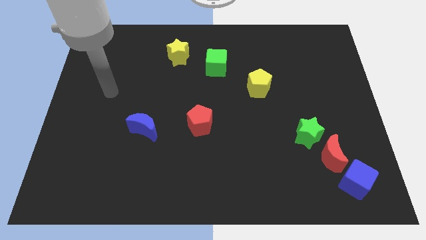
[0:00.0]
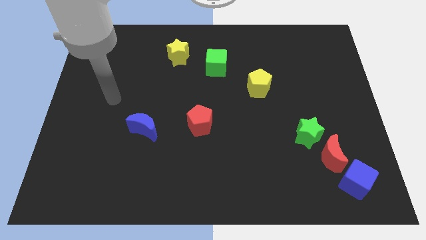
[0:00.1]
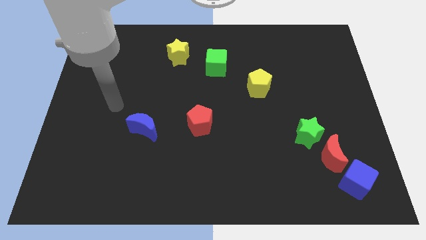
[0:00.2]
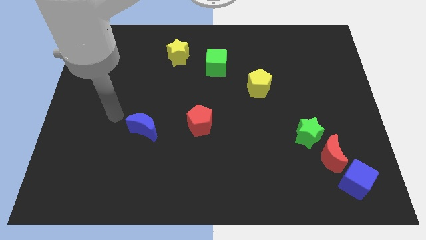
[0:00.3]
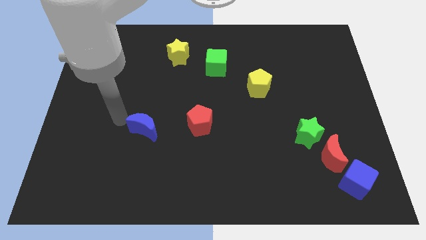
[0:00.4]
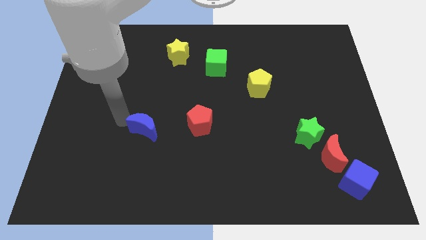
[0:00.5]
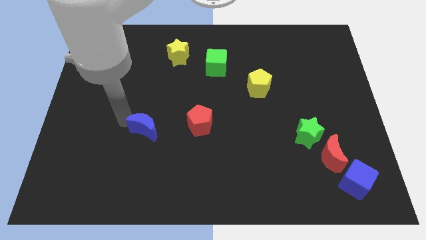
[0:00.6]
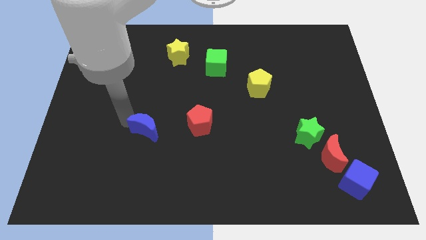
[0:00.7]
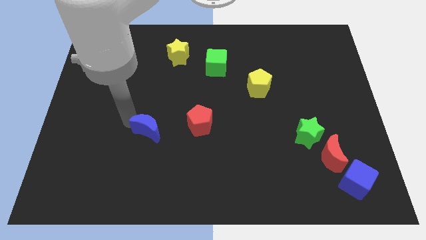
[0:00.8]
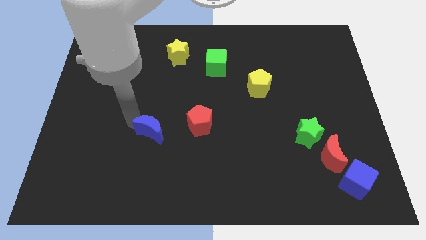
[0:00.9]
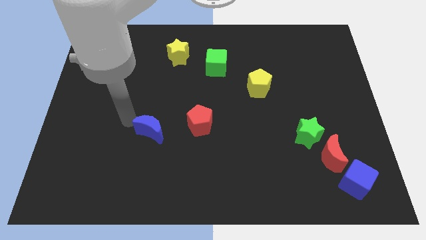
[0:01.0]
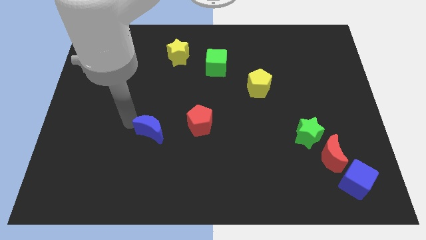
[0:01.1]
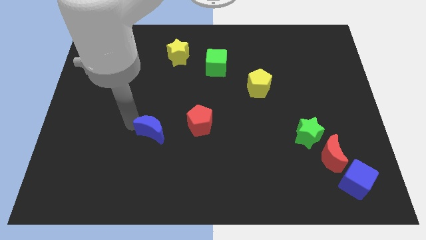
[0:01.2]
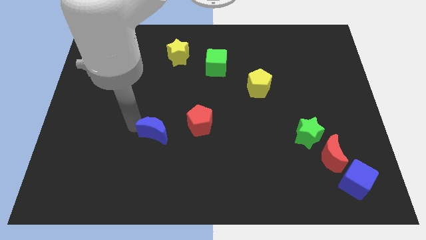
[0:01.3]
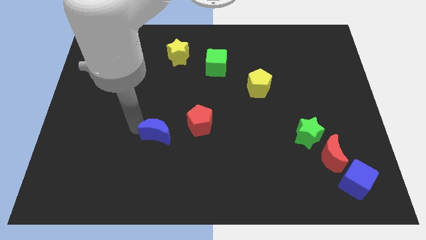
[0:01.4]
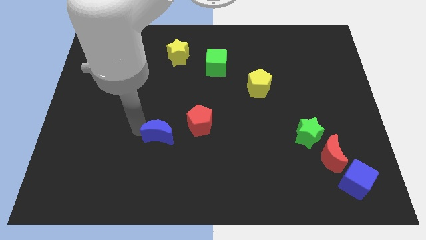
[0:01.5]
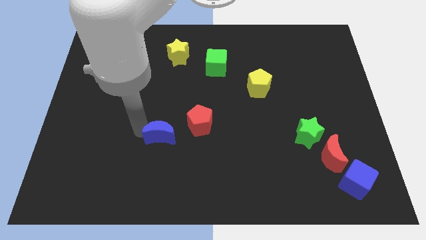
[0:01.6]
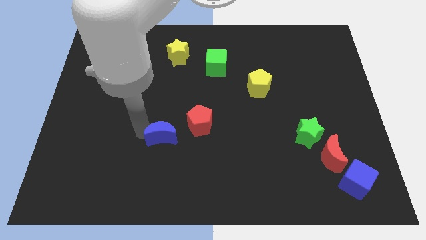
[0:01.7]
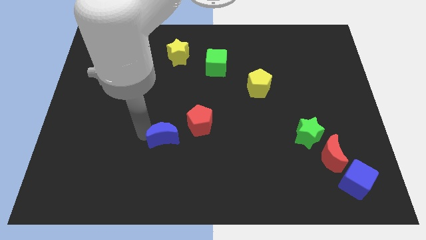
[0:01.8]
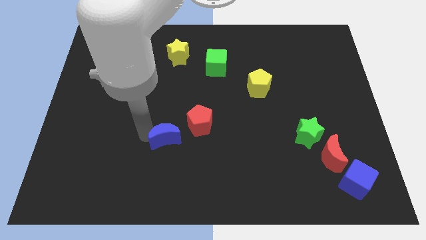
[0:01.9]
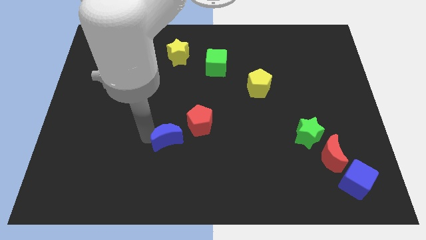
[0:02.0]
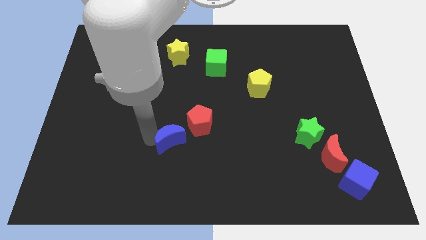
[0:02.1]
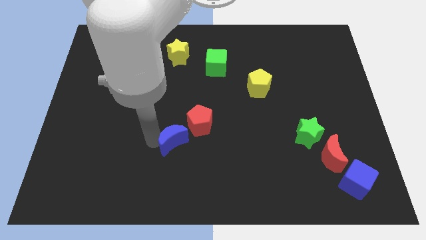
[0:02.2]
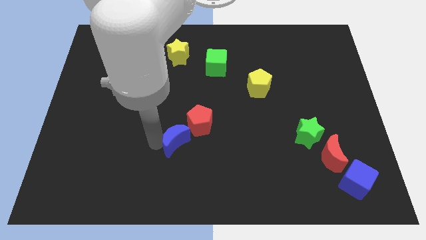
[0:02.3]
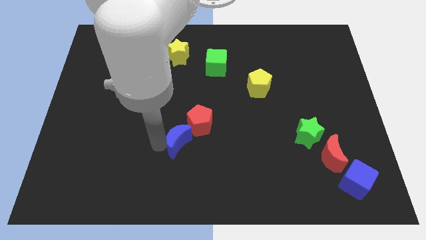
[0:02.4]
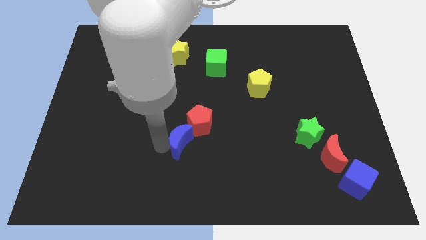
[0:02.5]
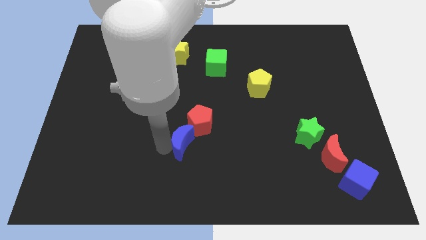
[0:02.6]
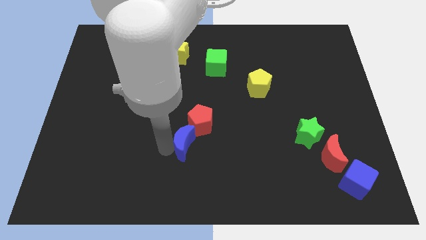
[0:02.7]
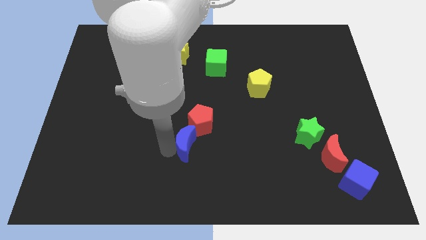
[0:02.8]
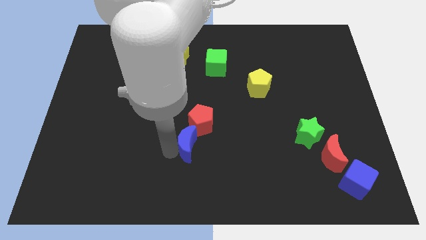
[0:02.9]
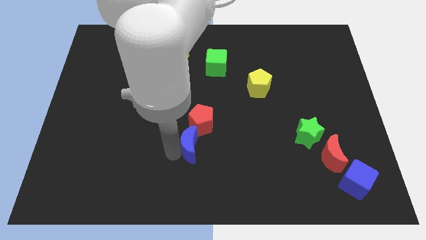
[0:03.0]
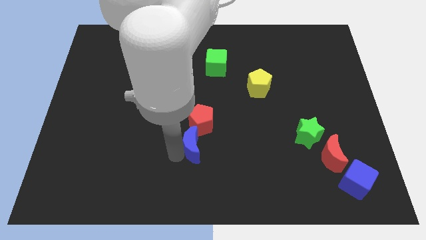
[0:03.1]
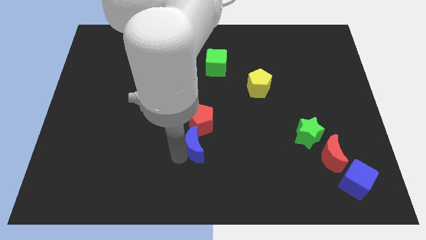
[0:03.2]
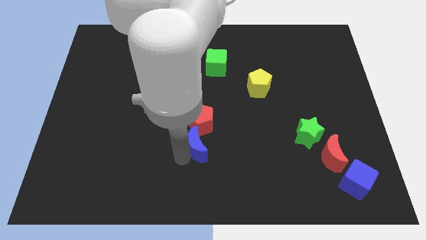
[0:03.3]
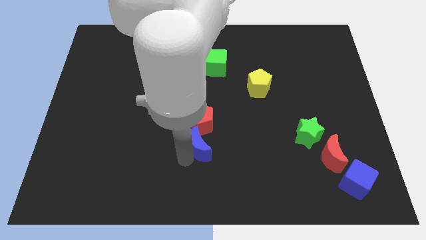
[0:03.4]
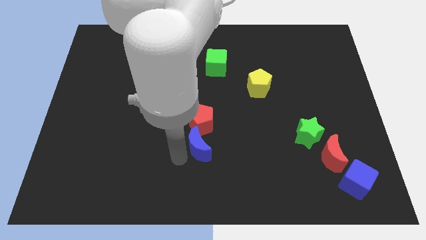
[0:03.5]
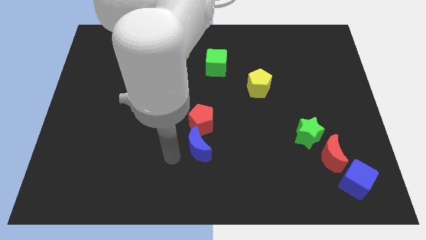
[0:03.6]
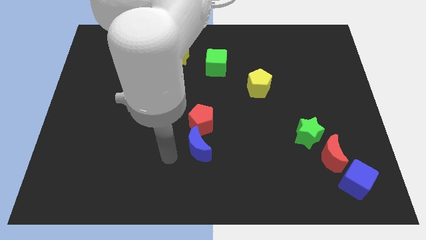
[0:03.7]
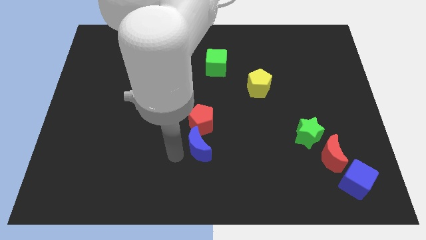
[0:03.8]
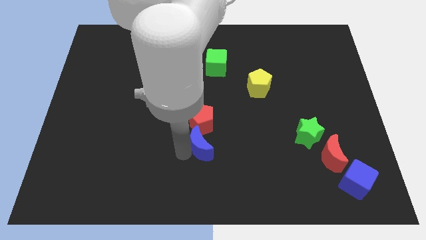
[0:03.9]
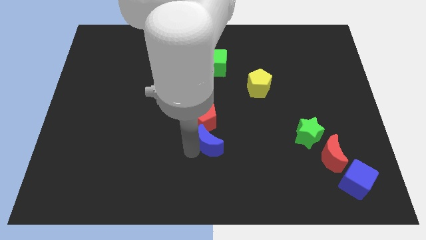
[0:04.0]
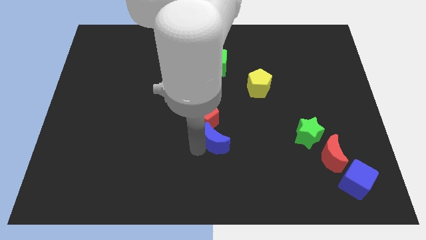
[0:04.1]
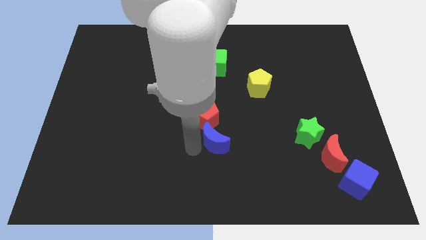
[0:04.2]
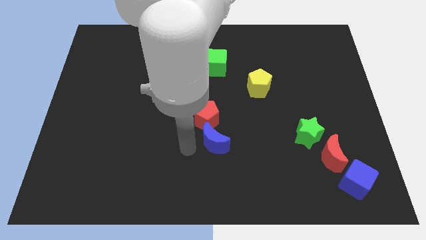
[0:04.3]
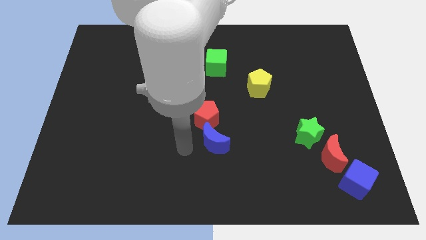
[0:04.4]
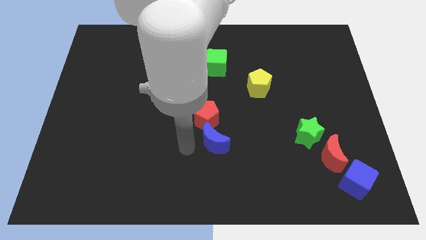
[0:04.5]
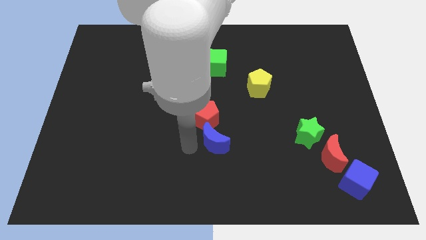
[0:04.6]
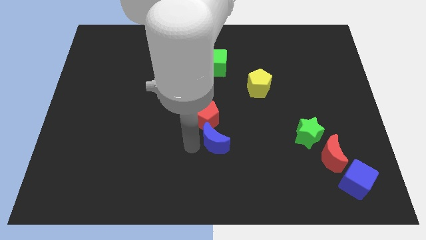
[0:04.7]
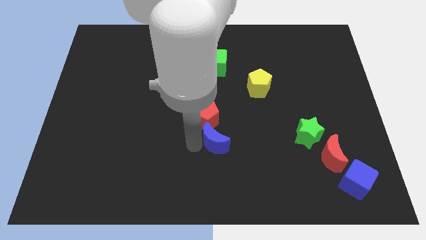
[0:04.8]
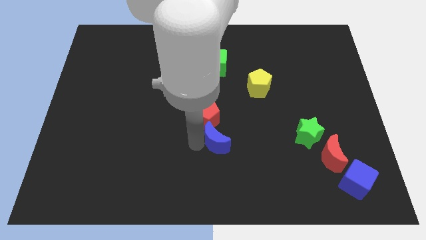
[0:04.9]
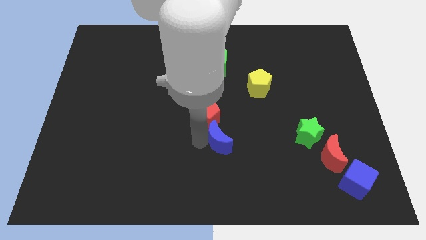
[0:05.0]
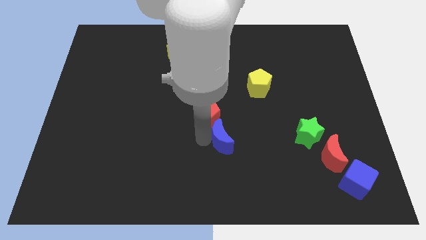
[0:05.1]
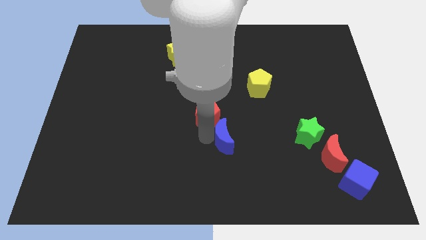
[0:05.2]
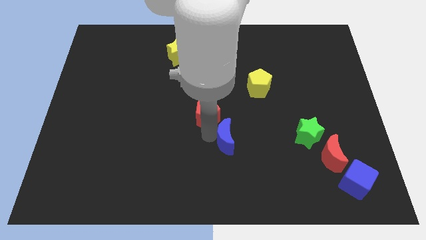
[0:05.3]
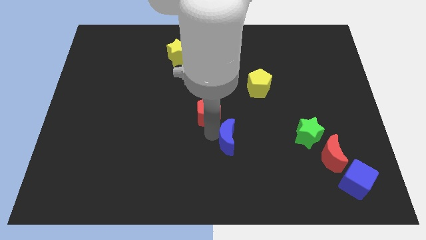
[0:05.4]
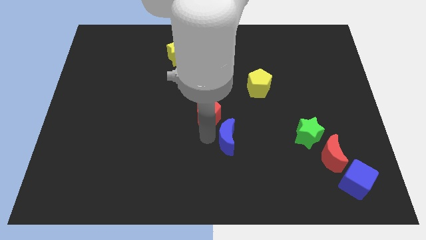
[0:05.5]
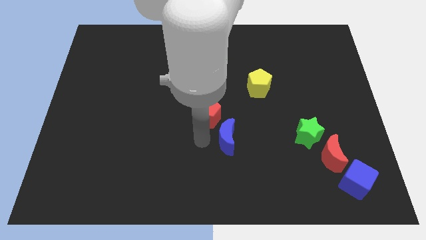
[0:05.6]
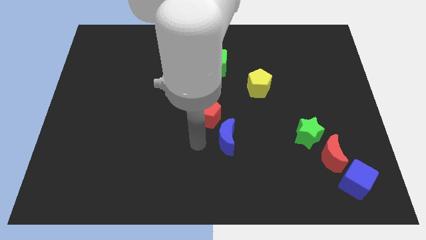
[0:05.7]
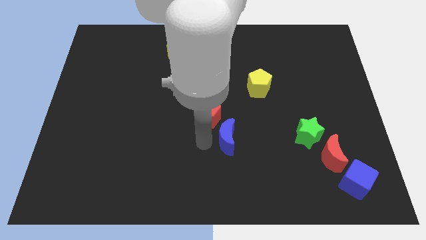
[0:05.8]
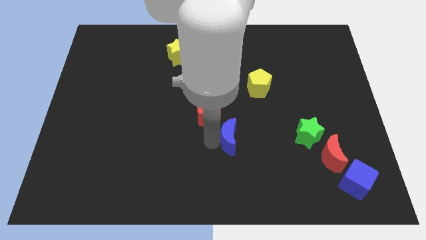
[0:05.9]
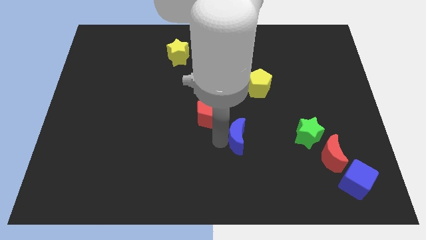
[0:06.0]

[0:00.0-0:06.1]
push the blue moon right

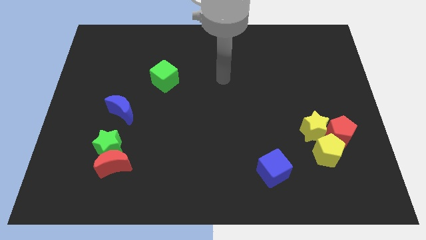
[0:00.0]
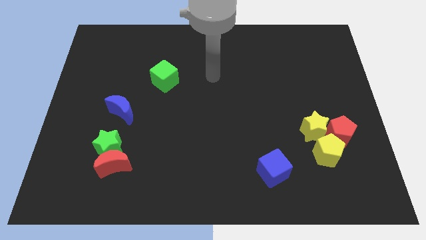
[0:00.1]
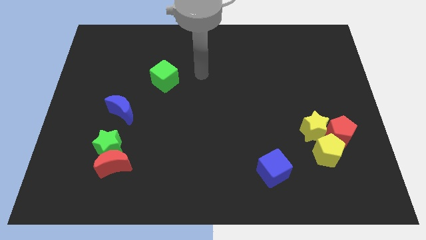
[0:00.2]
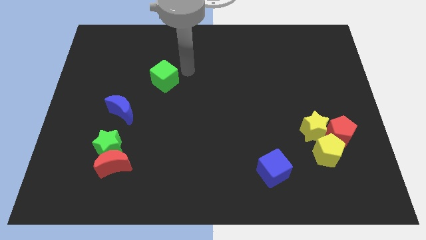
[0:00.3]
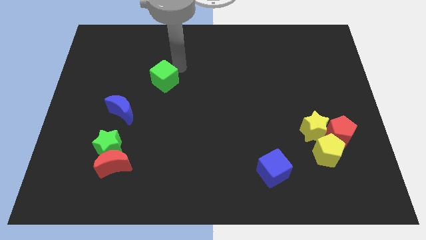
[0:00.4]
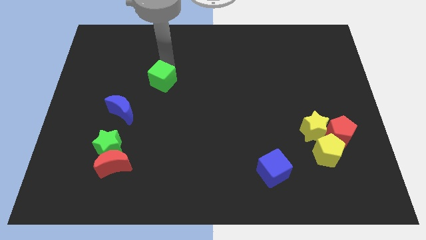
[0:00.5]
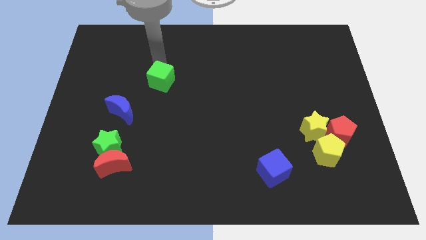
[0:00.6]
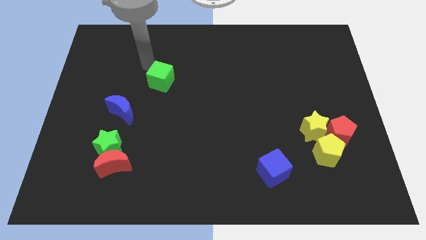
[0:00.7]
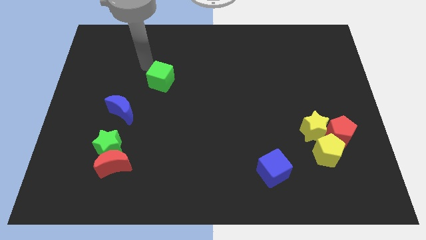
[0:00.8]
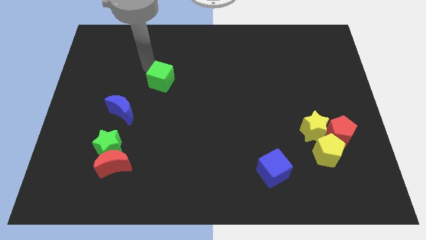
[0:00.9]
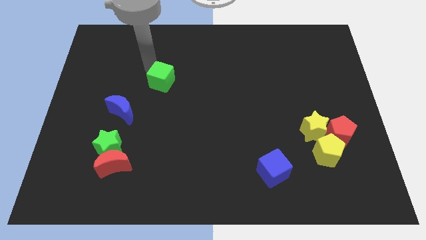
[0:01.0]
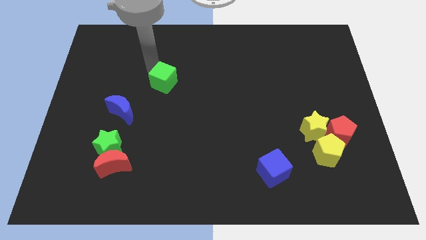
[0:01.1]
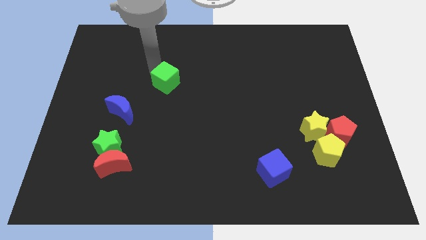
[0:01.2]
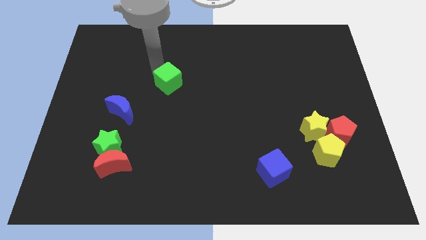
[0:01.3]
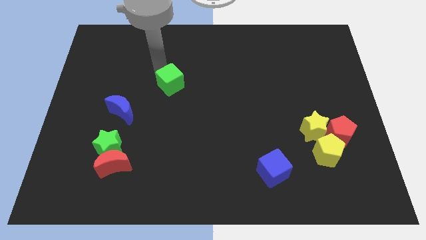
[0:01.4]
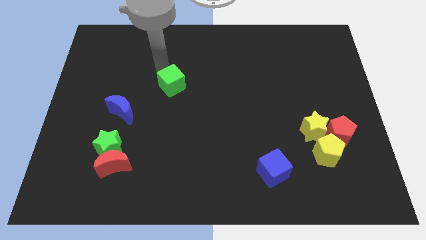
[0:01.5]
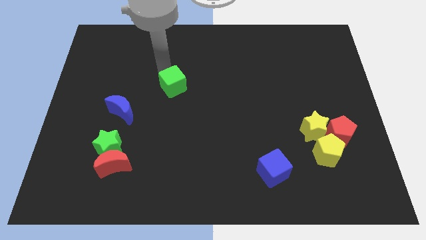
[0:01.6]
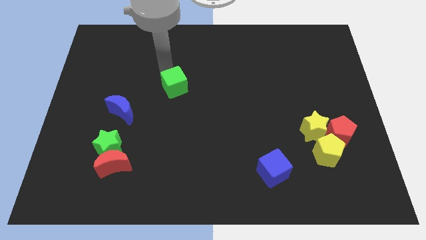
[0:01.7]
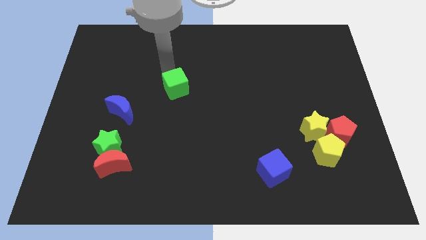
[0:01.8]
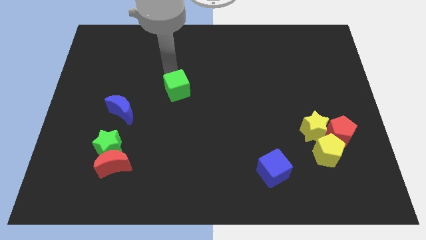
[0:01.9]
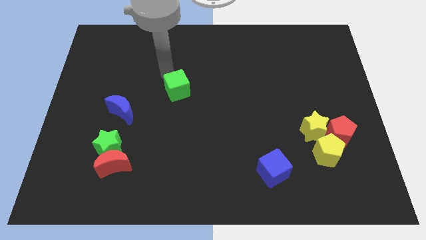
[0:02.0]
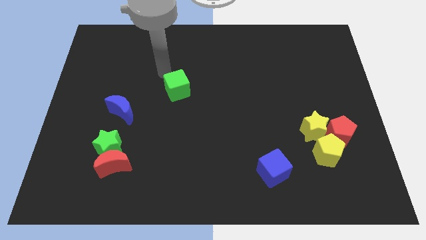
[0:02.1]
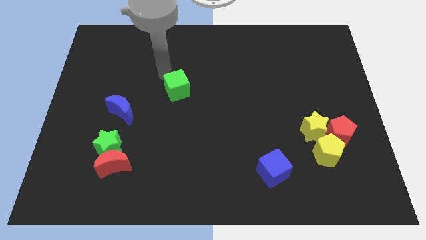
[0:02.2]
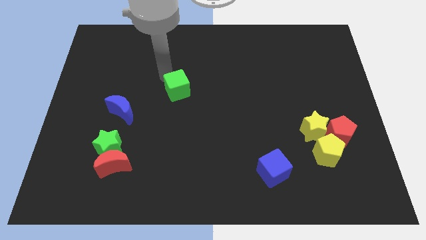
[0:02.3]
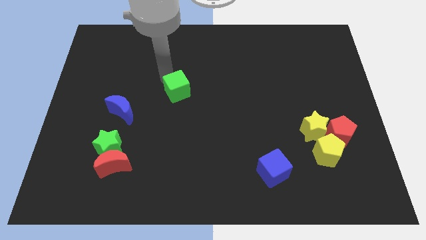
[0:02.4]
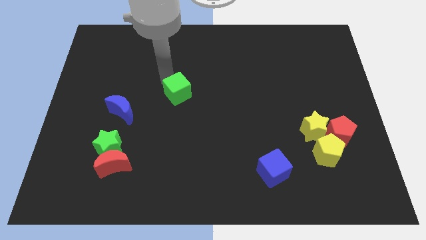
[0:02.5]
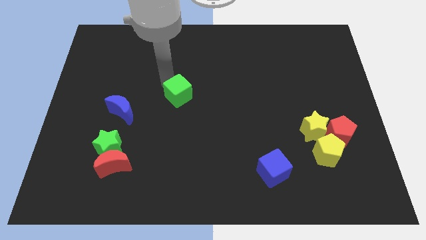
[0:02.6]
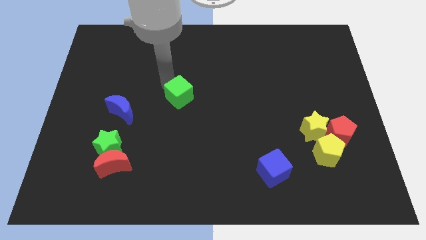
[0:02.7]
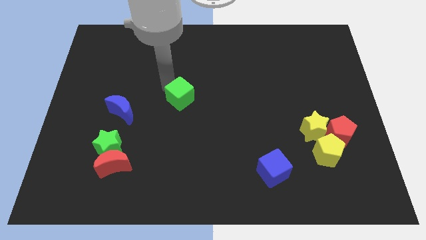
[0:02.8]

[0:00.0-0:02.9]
slide the green cube downwards and to the right diagonally a bit
